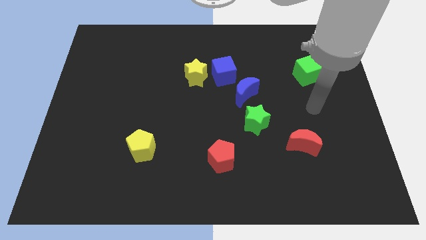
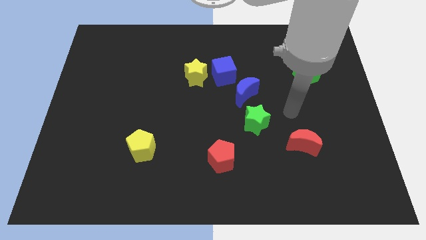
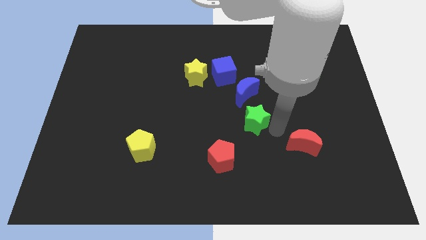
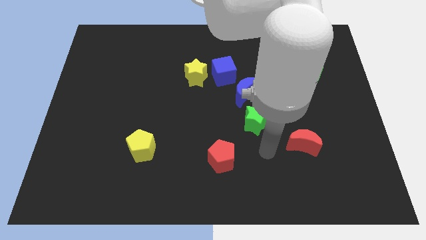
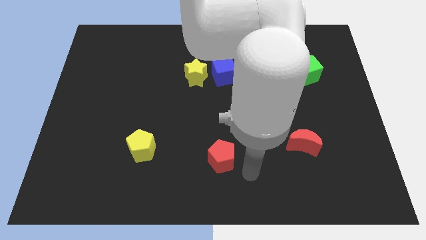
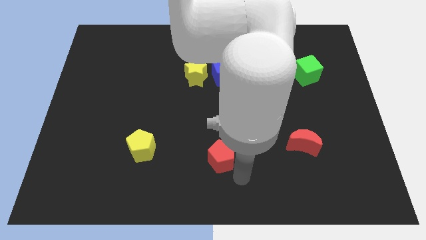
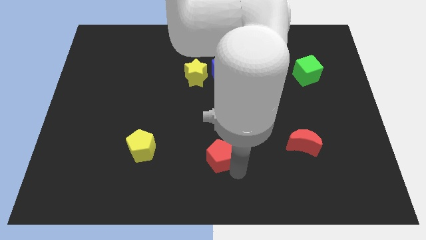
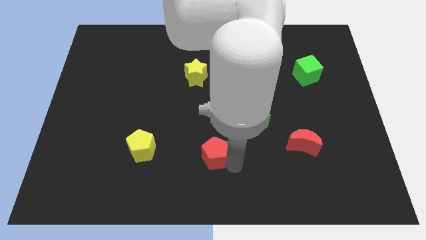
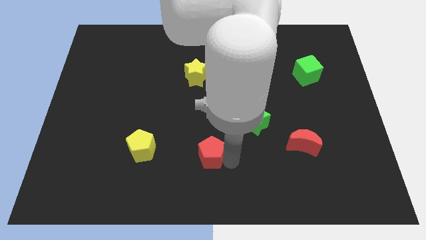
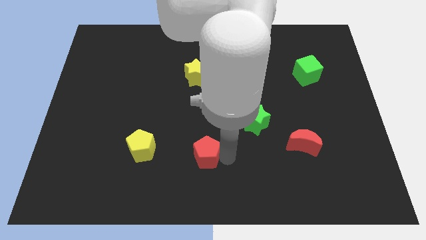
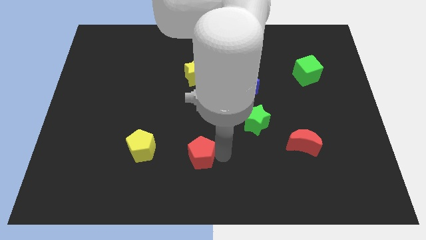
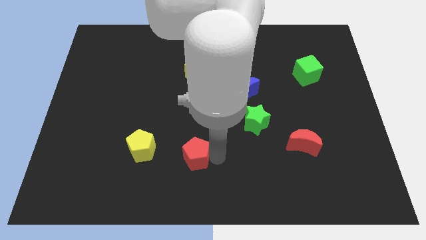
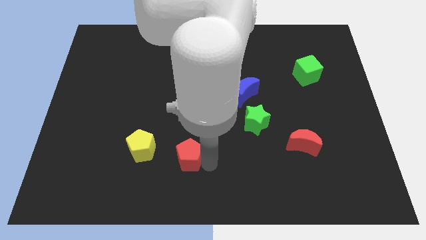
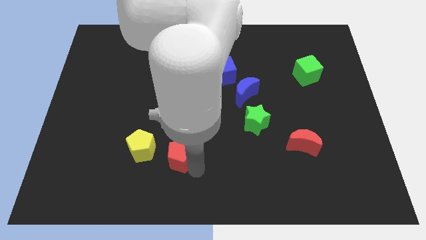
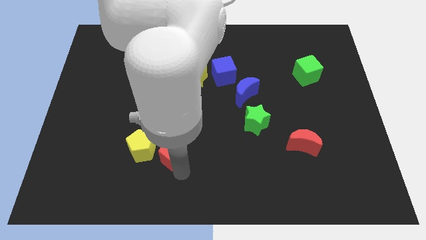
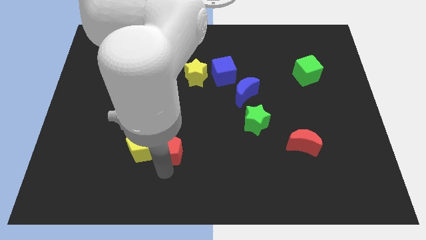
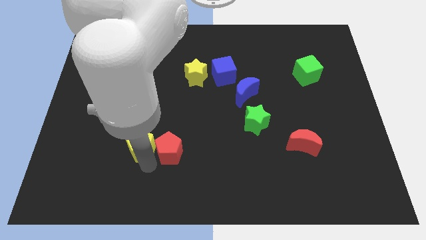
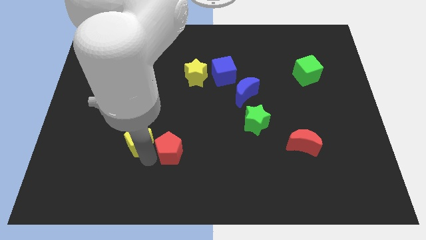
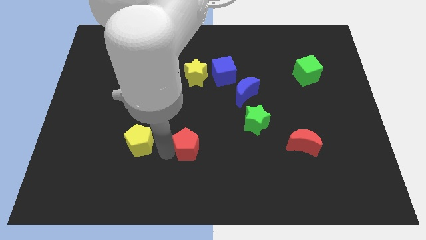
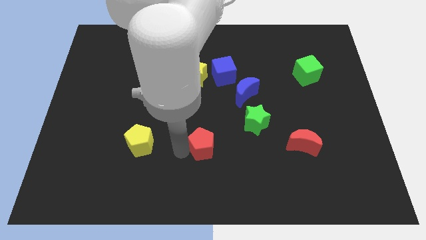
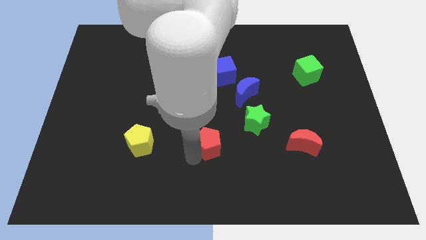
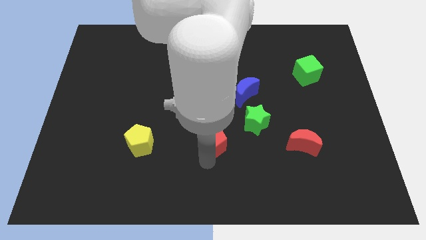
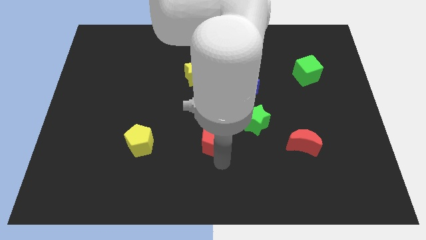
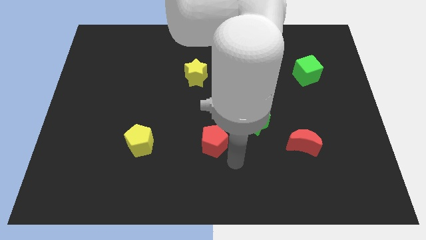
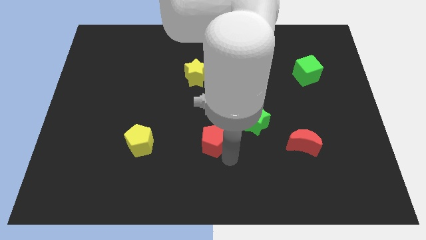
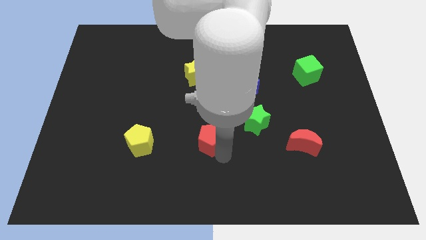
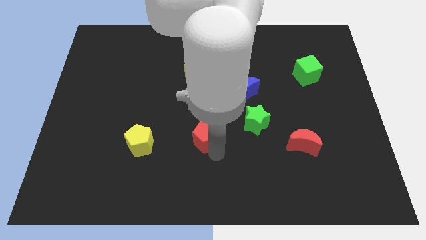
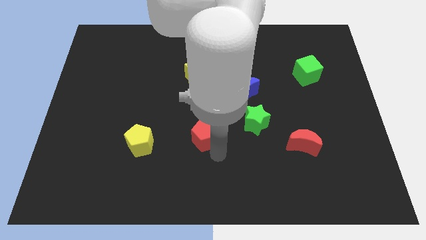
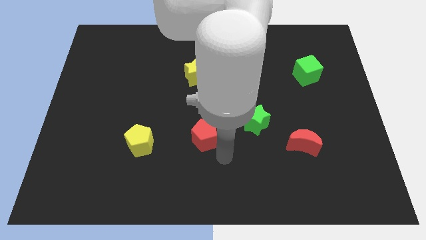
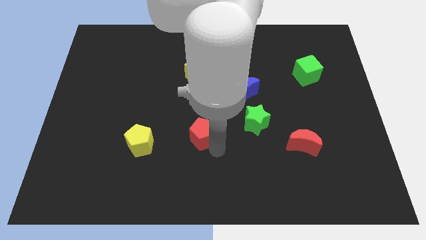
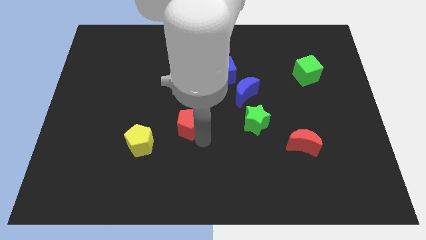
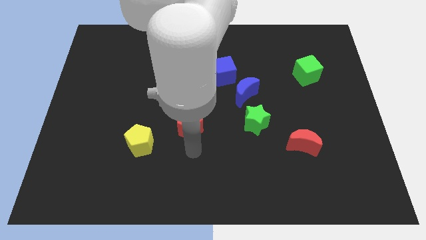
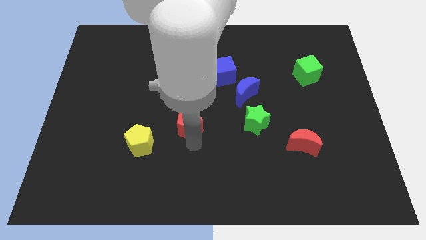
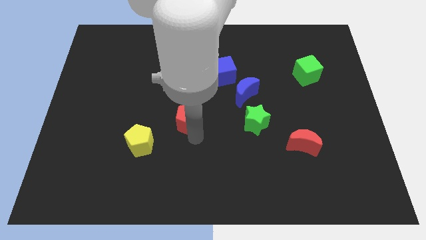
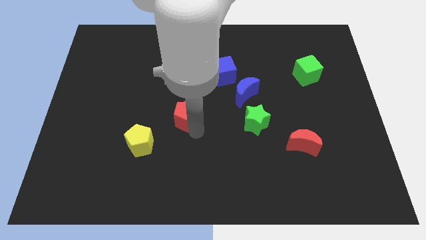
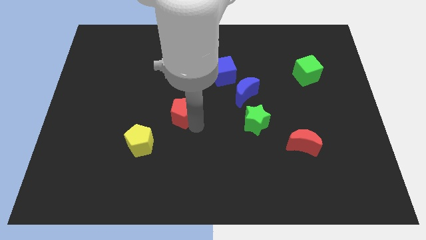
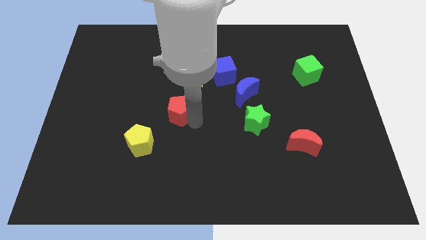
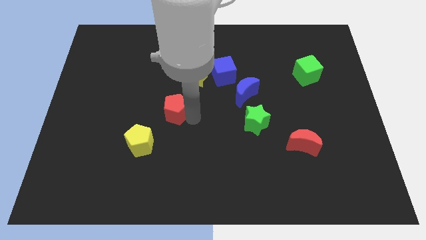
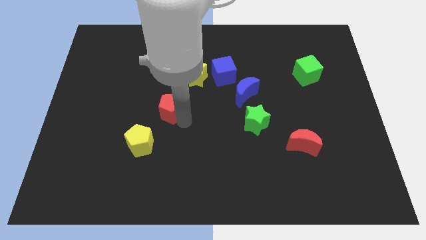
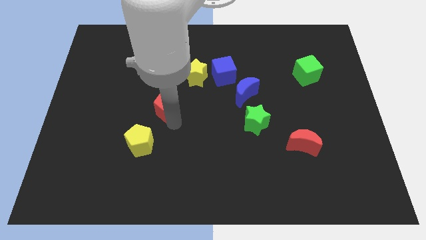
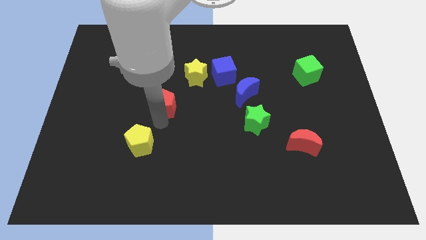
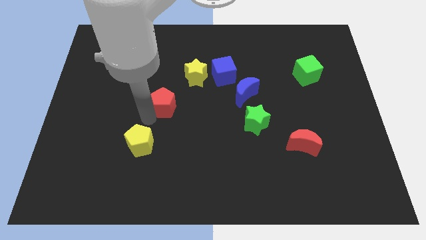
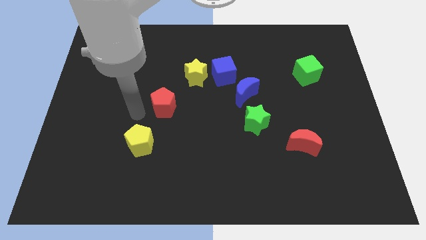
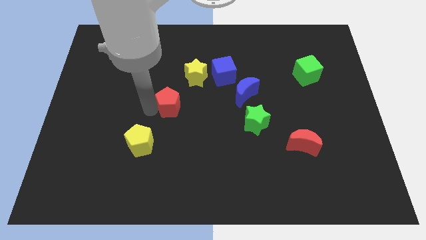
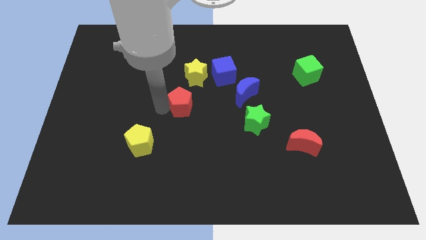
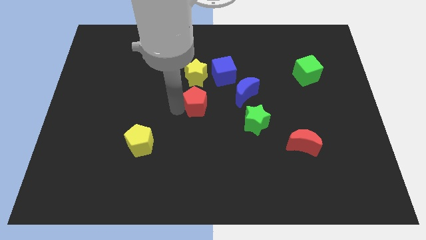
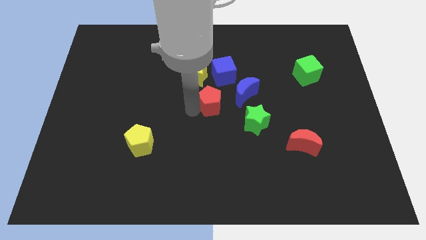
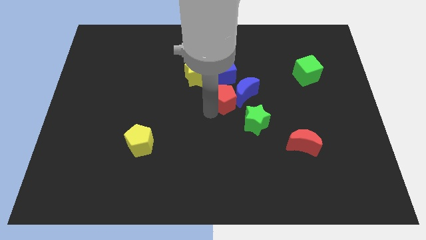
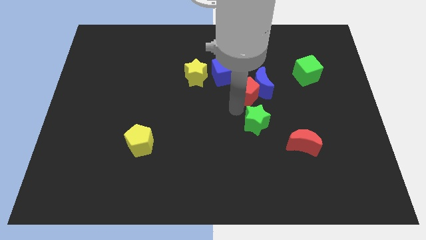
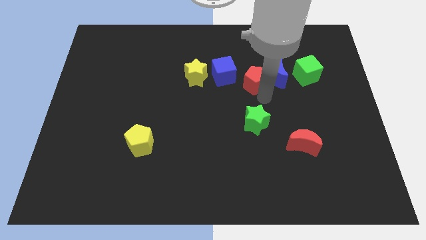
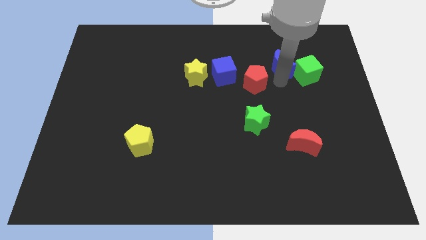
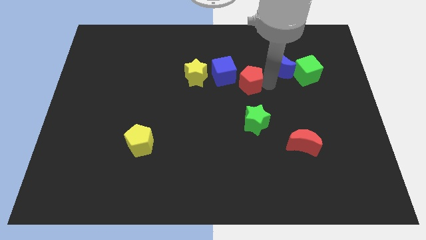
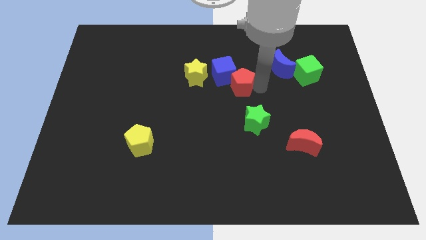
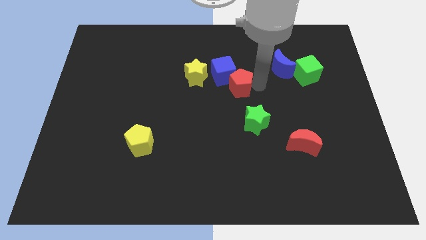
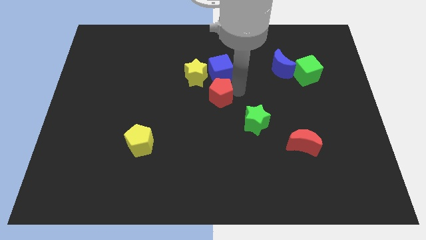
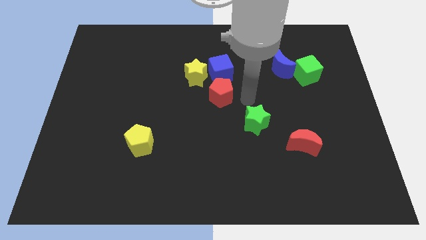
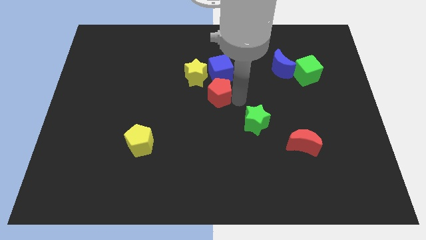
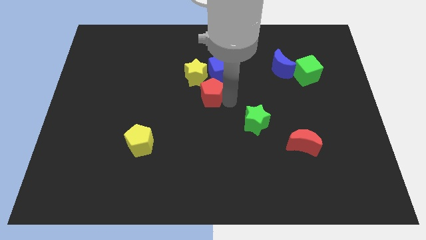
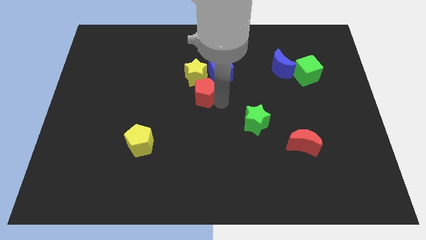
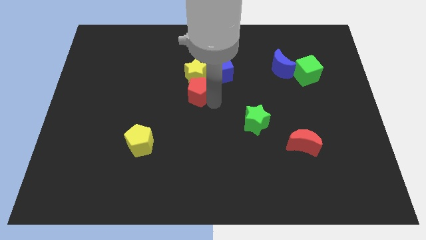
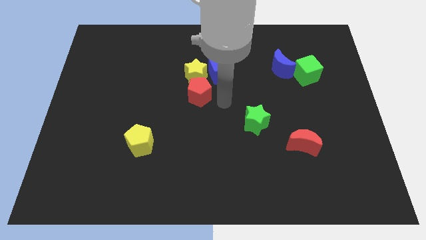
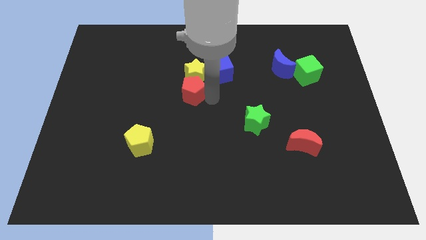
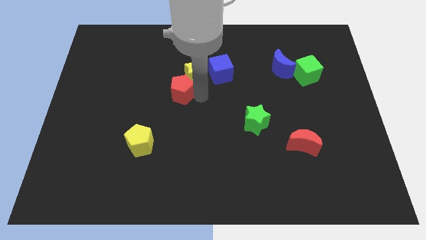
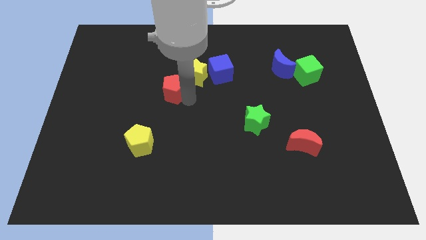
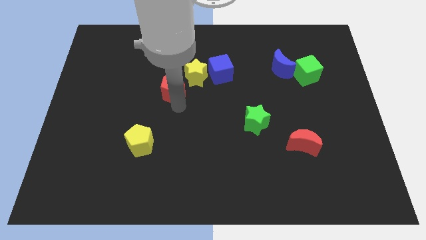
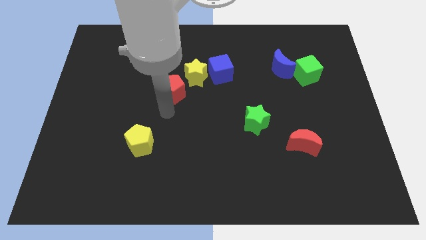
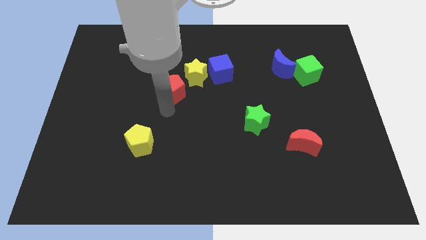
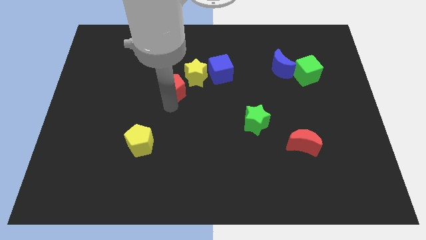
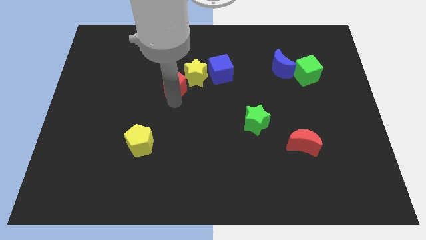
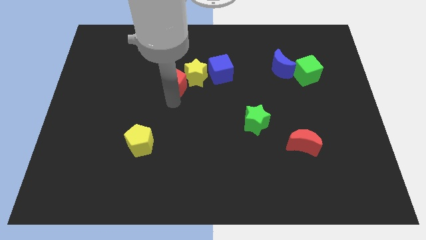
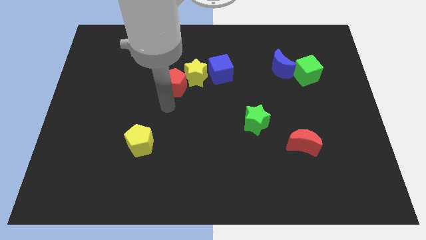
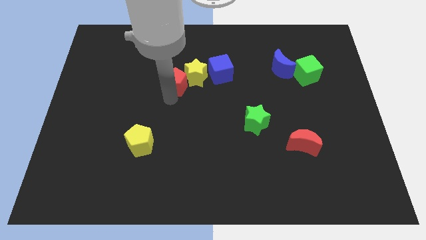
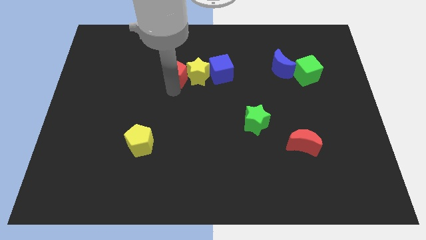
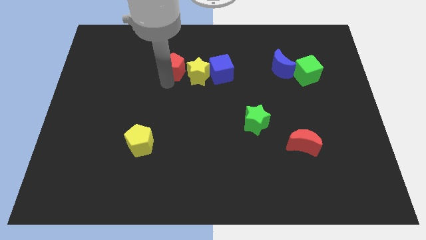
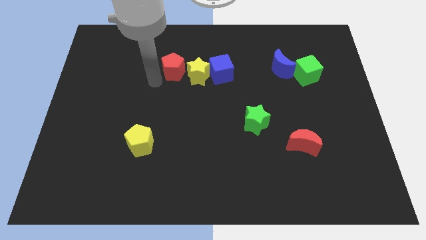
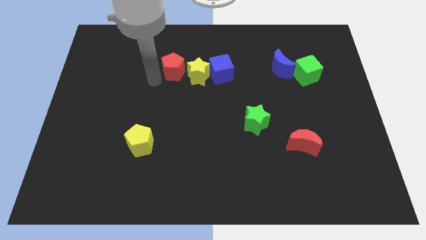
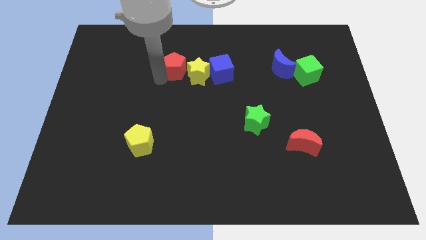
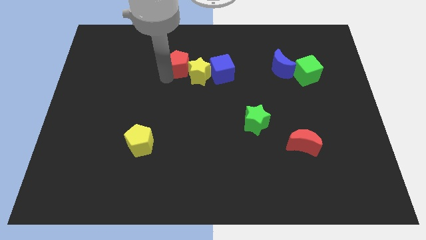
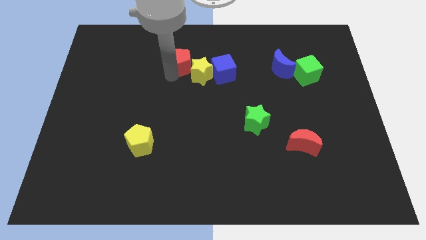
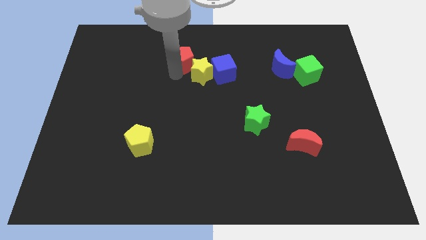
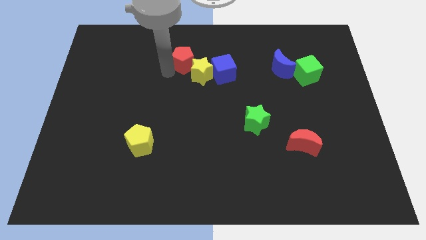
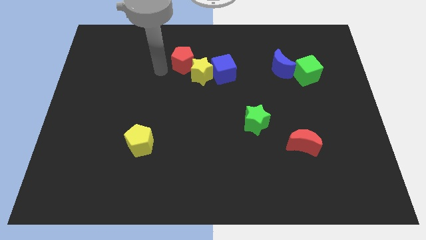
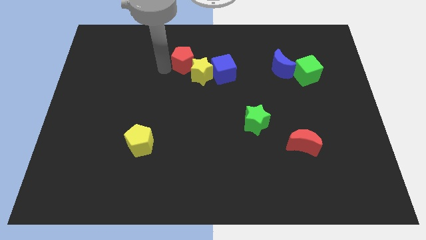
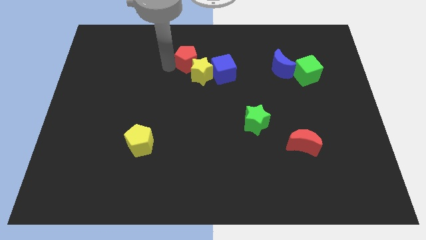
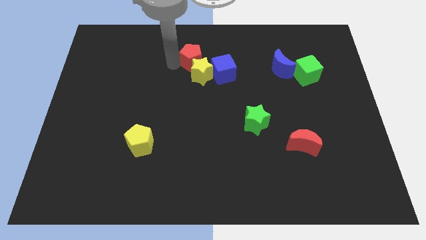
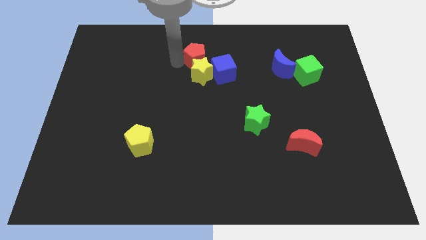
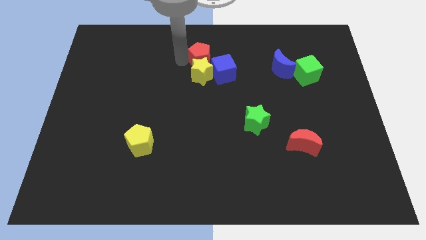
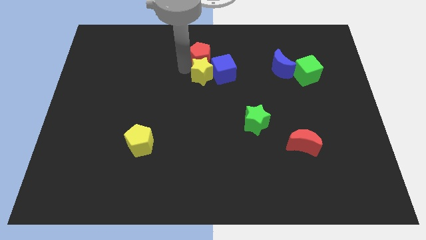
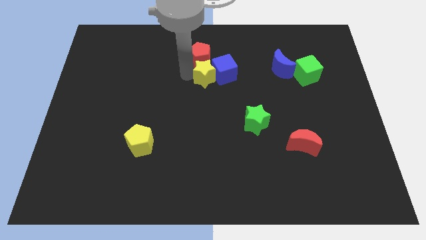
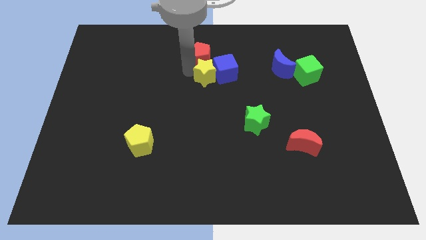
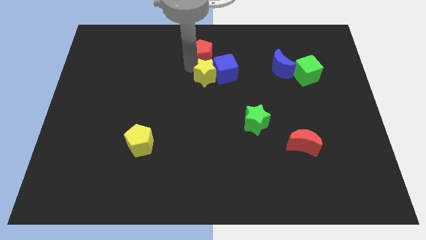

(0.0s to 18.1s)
move the red pentagon to the top side
